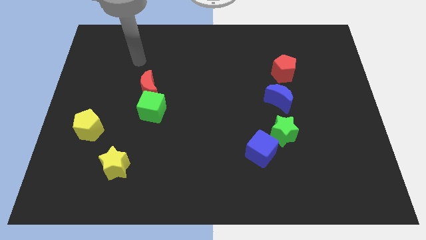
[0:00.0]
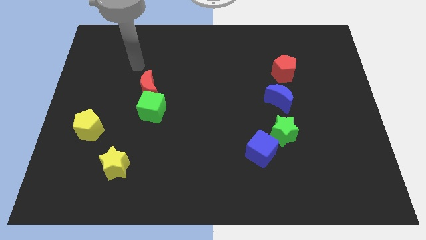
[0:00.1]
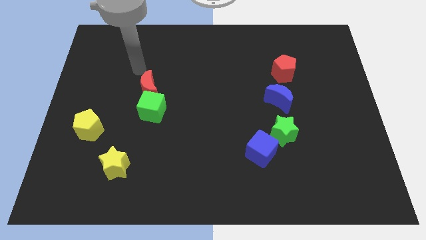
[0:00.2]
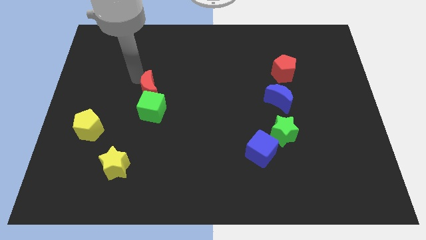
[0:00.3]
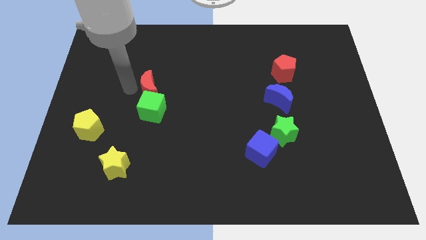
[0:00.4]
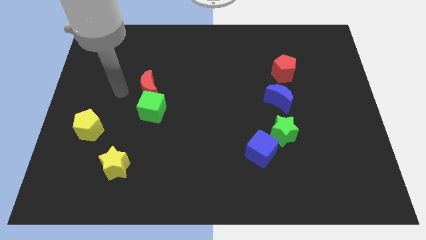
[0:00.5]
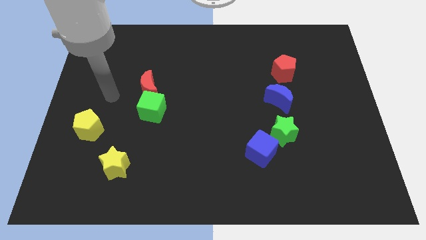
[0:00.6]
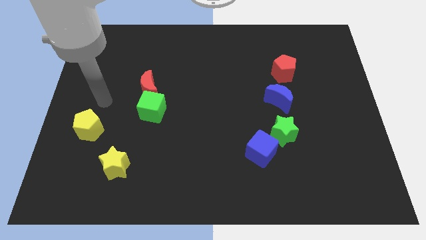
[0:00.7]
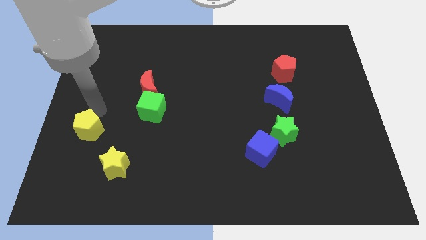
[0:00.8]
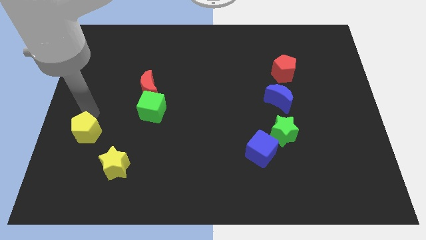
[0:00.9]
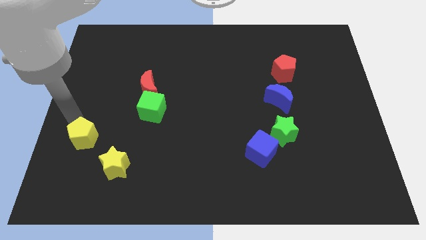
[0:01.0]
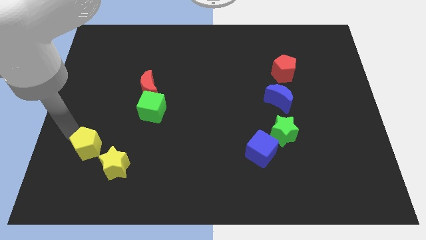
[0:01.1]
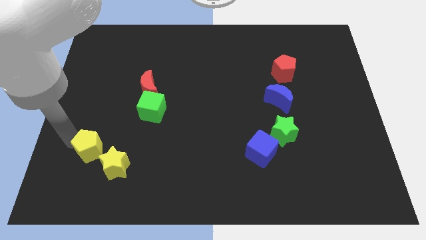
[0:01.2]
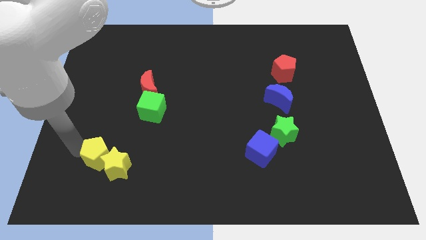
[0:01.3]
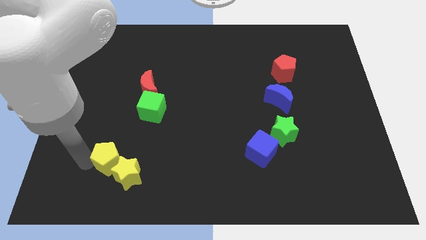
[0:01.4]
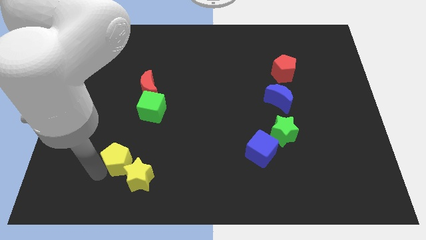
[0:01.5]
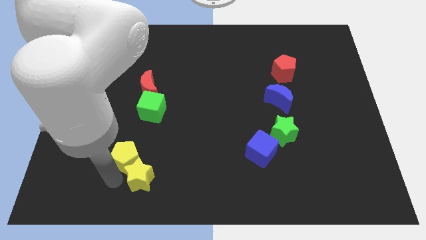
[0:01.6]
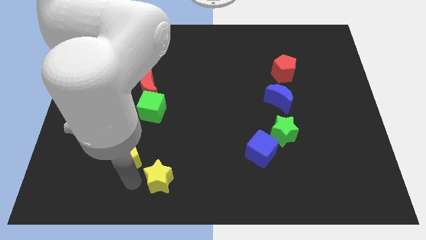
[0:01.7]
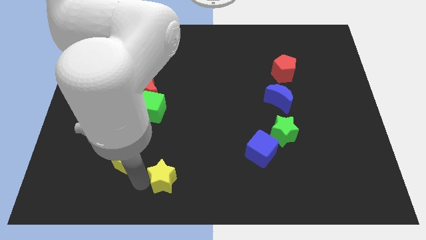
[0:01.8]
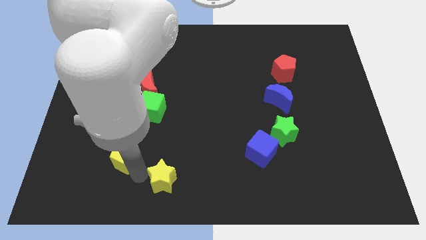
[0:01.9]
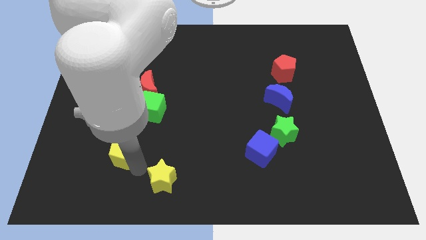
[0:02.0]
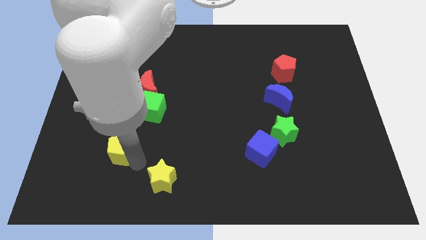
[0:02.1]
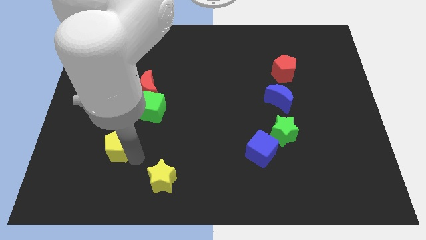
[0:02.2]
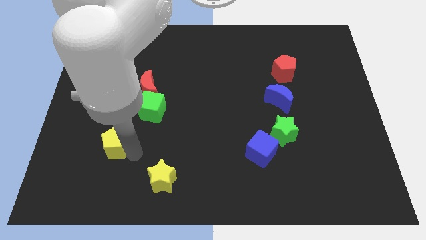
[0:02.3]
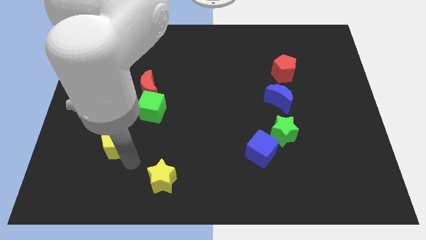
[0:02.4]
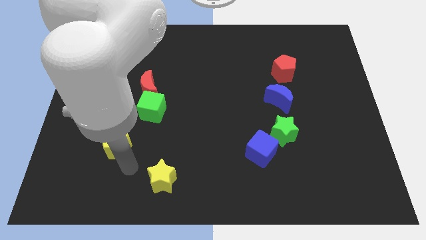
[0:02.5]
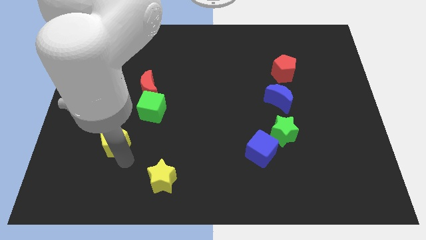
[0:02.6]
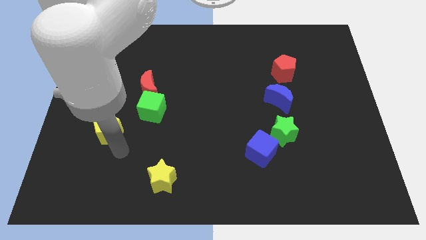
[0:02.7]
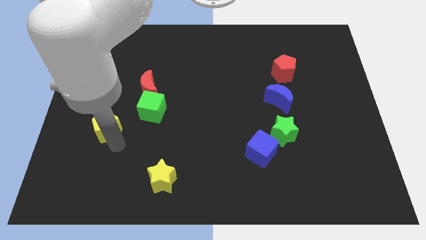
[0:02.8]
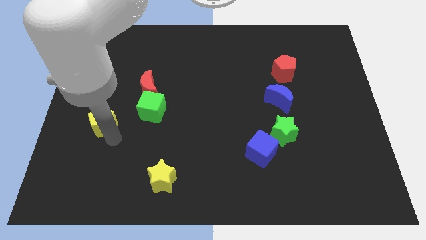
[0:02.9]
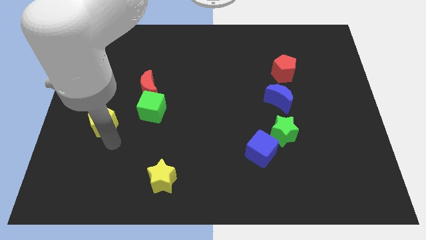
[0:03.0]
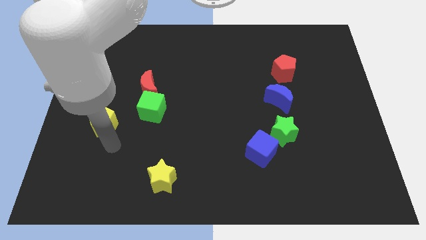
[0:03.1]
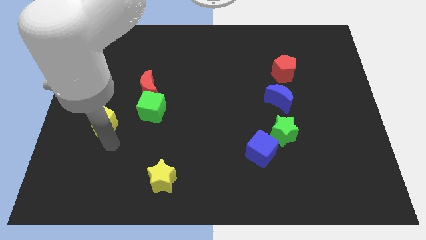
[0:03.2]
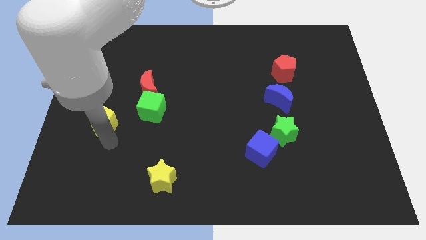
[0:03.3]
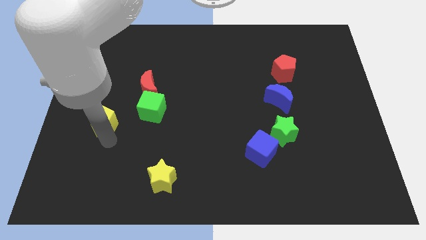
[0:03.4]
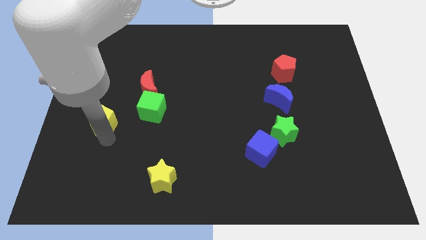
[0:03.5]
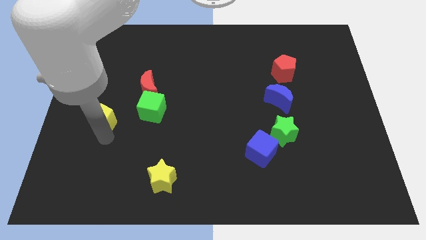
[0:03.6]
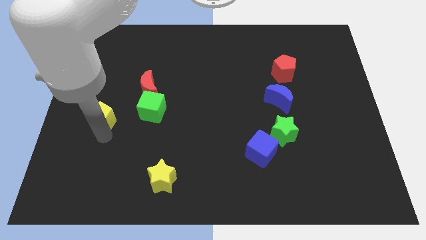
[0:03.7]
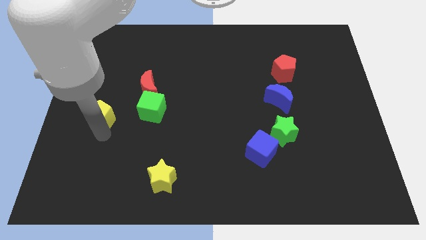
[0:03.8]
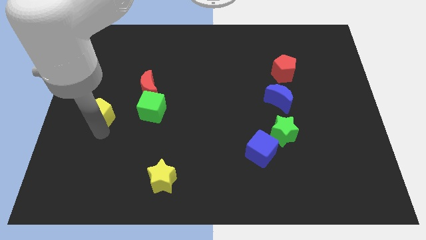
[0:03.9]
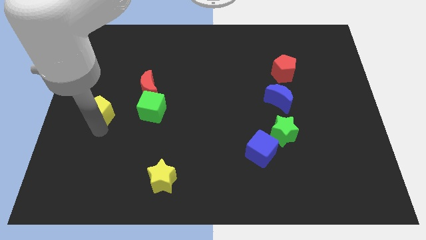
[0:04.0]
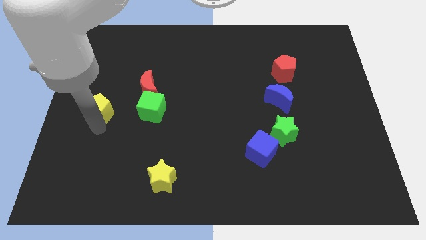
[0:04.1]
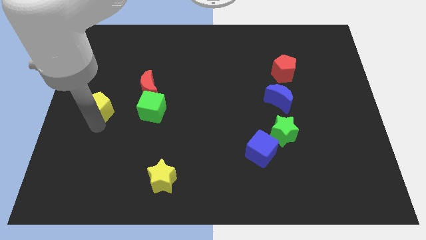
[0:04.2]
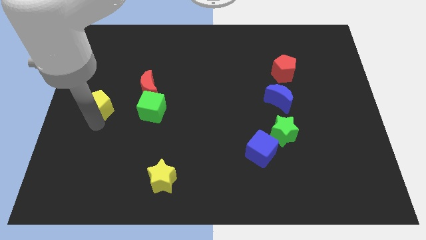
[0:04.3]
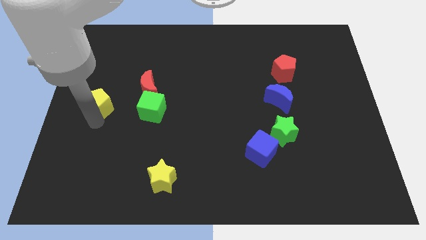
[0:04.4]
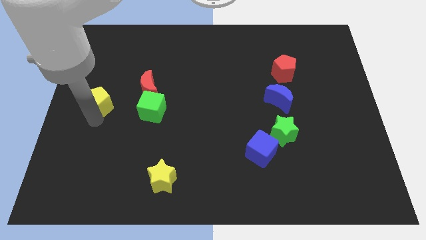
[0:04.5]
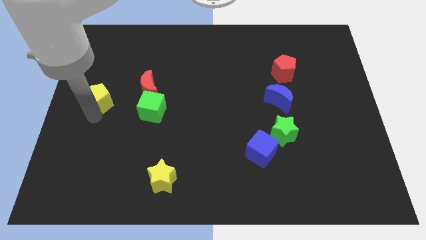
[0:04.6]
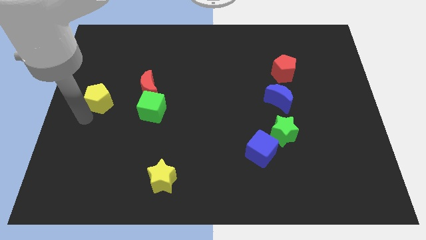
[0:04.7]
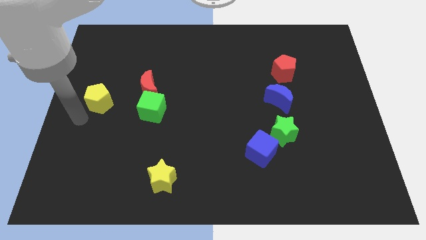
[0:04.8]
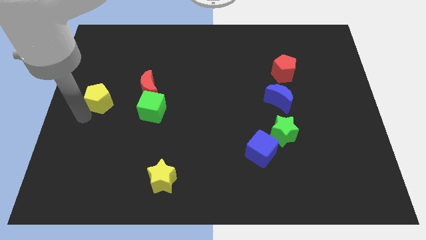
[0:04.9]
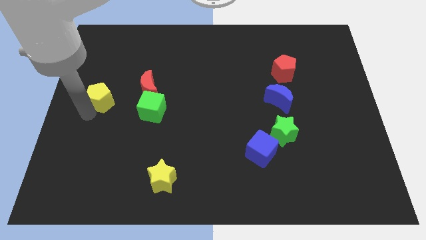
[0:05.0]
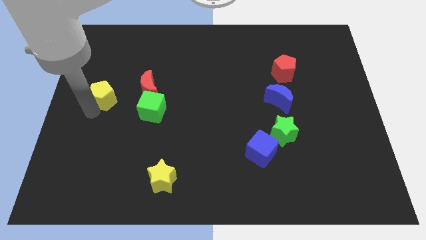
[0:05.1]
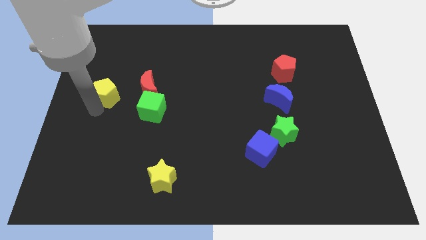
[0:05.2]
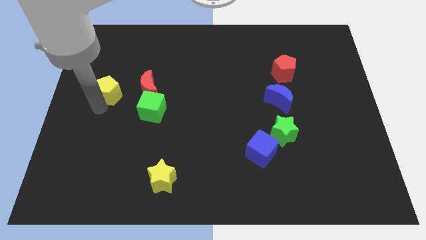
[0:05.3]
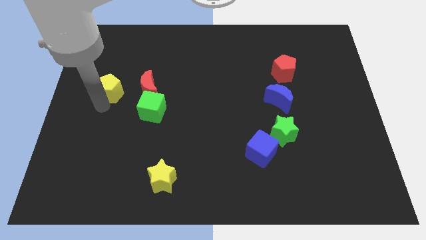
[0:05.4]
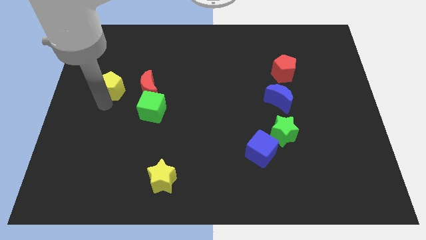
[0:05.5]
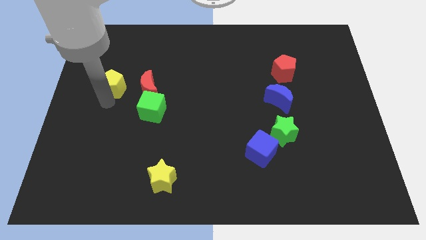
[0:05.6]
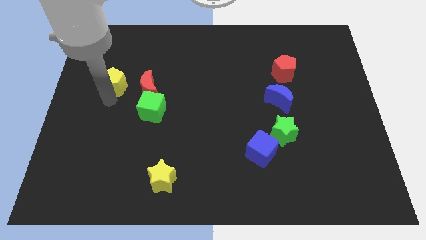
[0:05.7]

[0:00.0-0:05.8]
put the yellow pentagon diagonally up and to the left of the red moon

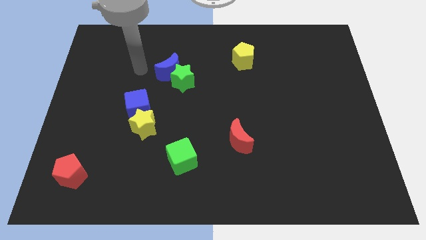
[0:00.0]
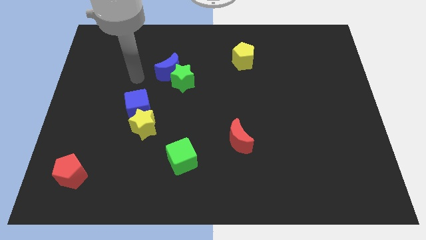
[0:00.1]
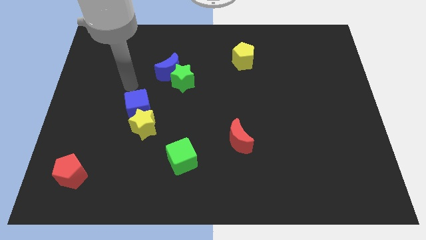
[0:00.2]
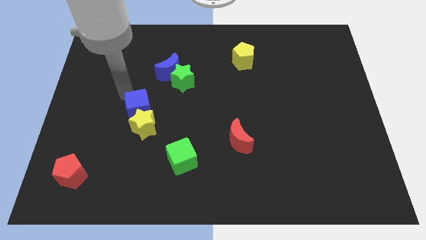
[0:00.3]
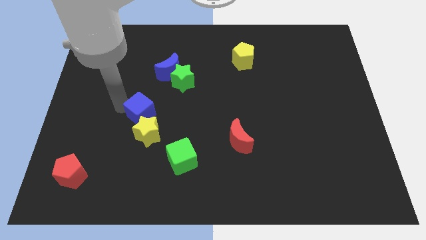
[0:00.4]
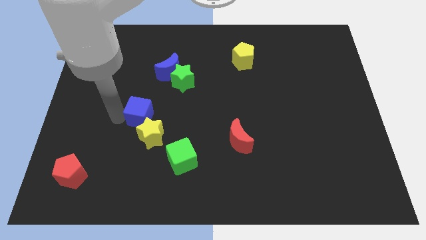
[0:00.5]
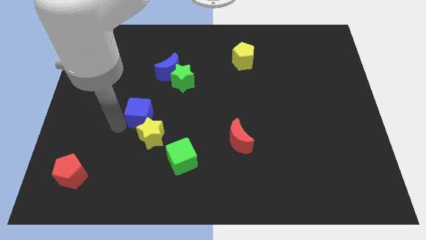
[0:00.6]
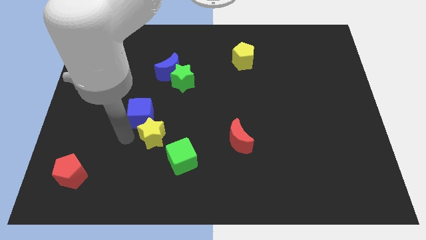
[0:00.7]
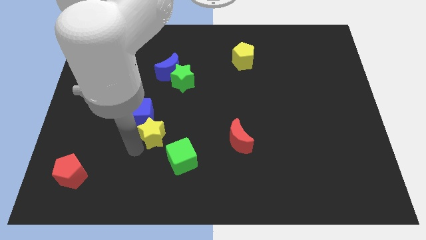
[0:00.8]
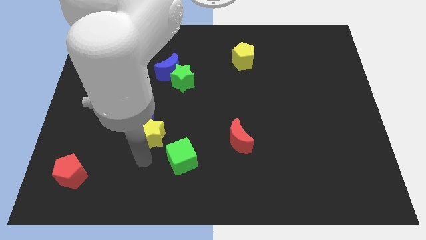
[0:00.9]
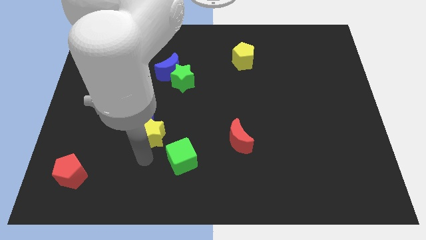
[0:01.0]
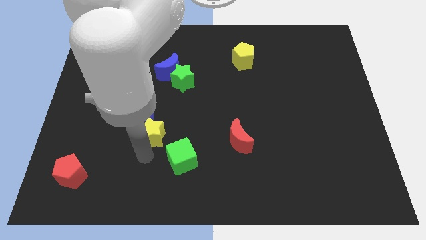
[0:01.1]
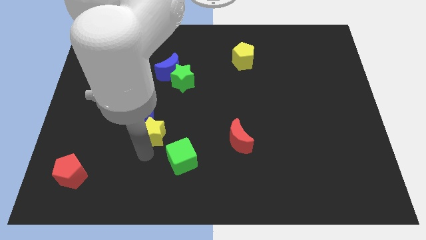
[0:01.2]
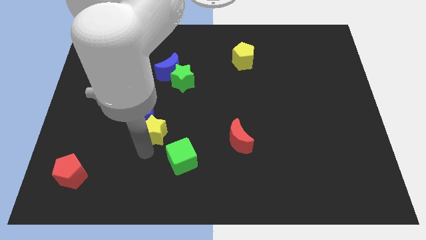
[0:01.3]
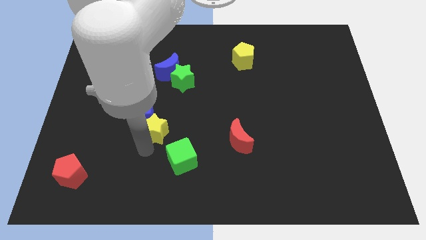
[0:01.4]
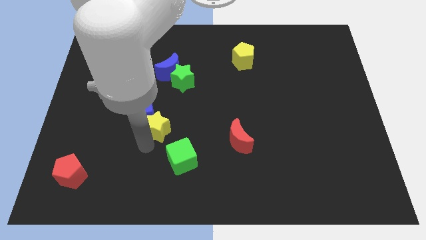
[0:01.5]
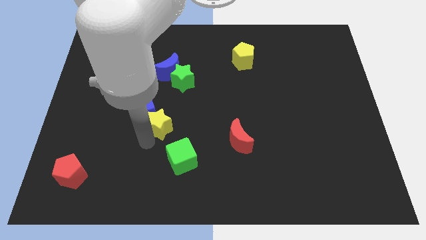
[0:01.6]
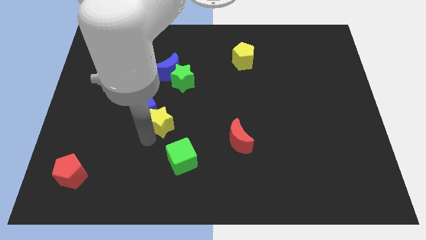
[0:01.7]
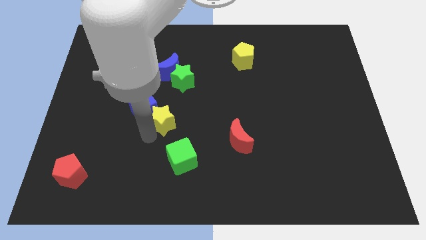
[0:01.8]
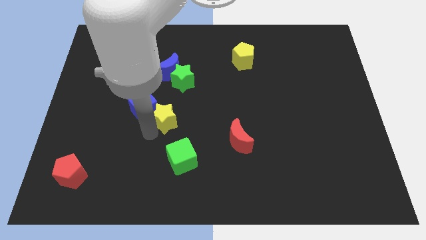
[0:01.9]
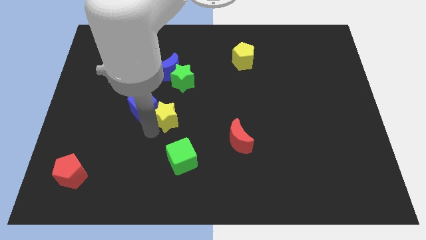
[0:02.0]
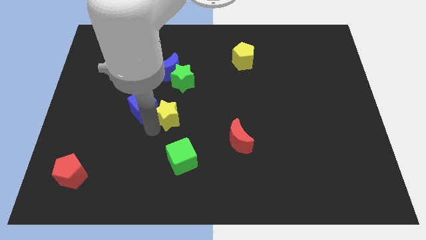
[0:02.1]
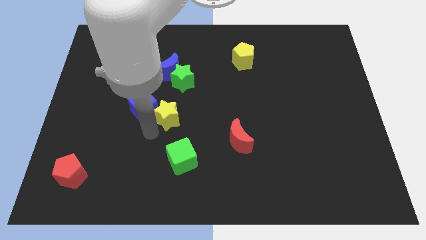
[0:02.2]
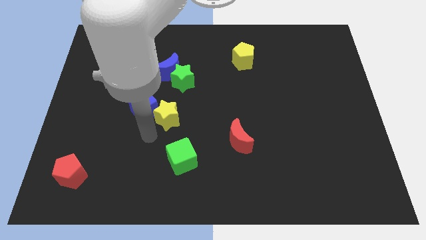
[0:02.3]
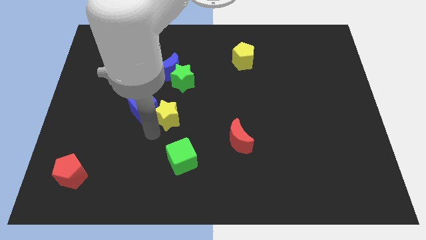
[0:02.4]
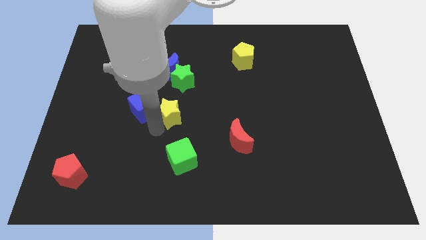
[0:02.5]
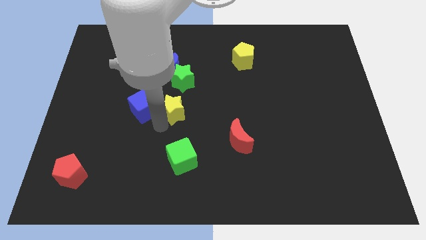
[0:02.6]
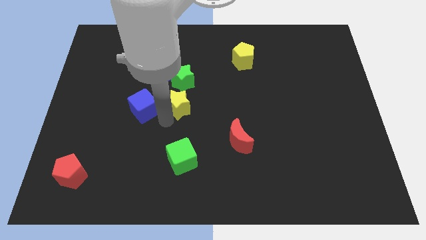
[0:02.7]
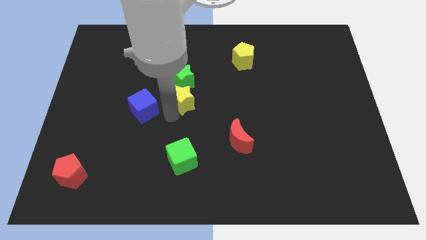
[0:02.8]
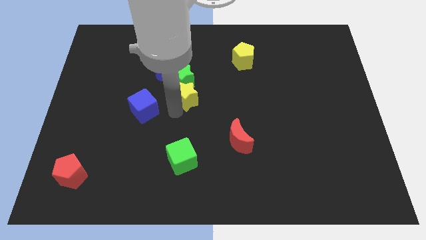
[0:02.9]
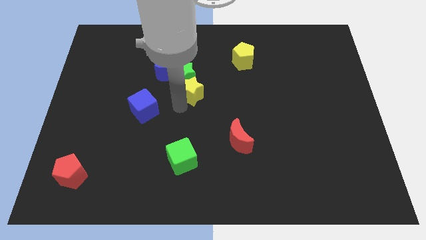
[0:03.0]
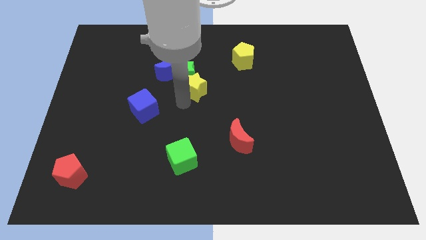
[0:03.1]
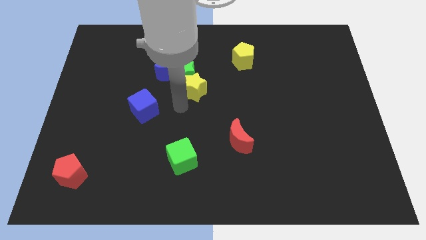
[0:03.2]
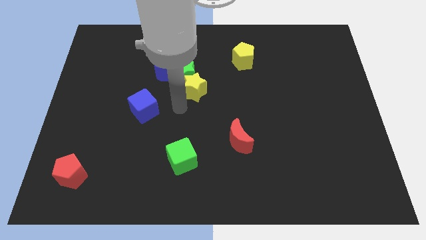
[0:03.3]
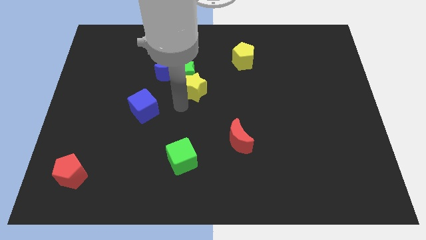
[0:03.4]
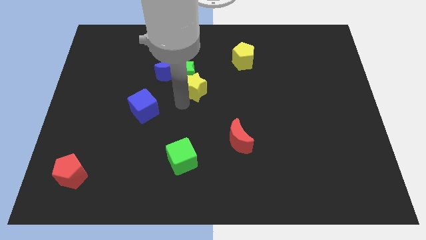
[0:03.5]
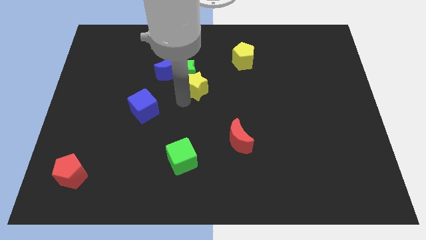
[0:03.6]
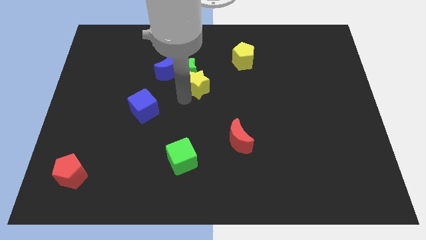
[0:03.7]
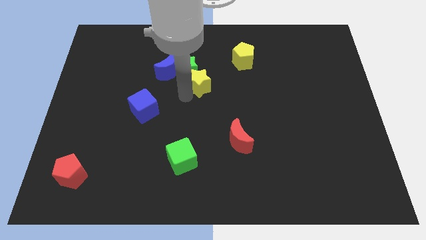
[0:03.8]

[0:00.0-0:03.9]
put the yellow star to the right side of the blue moon
